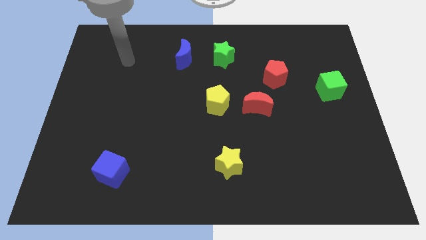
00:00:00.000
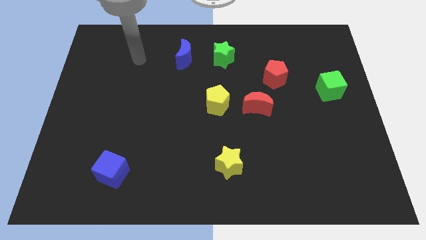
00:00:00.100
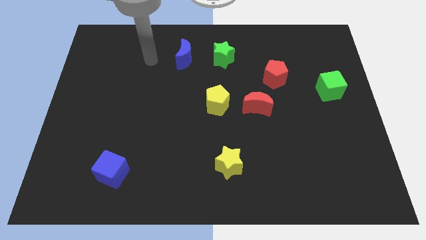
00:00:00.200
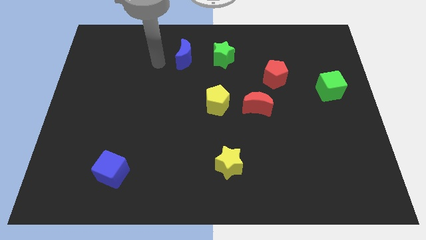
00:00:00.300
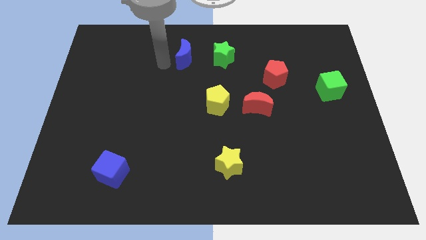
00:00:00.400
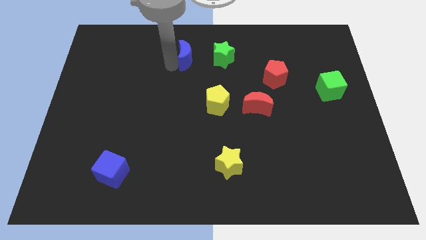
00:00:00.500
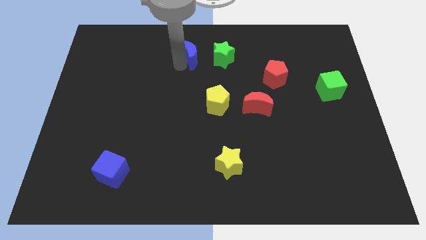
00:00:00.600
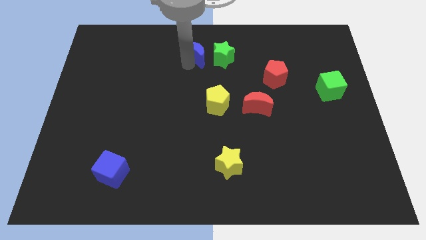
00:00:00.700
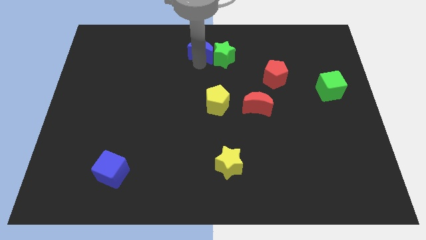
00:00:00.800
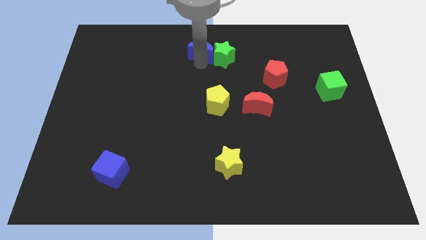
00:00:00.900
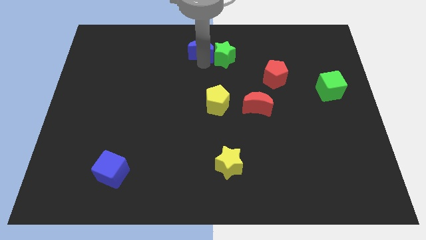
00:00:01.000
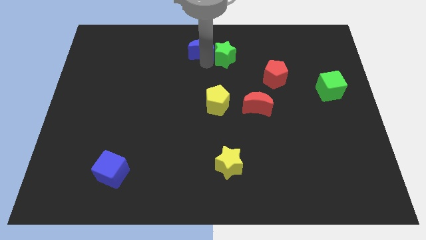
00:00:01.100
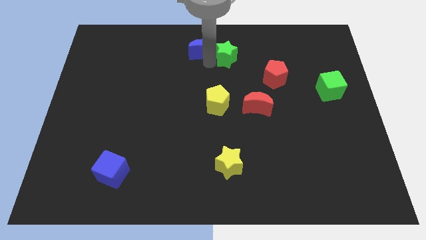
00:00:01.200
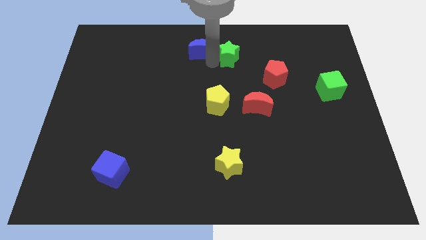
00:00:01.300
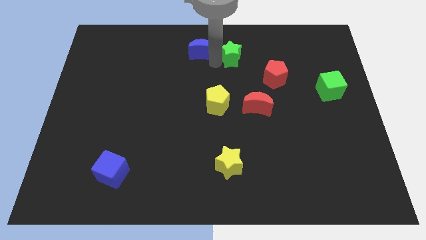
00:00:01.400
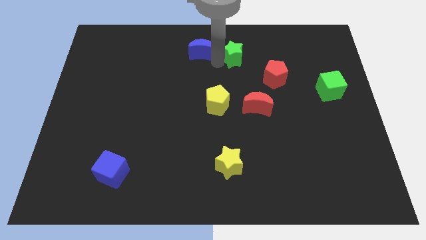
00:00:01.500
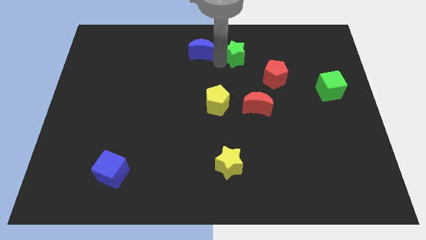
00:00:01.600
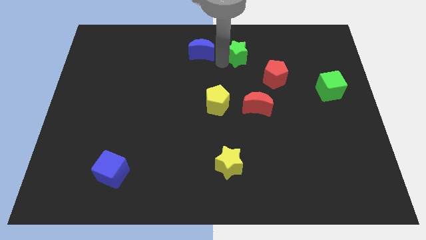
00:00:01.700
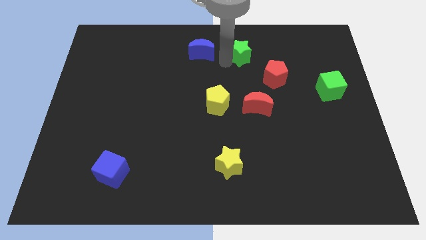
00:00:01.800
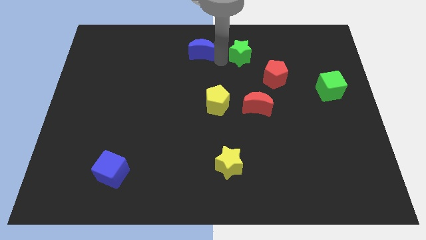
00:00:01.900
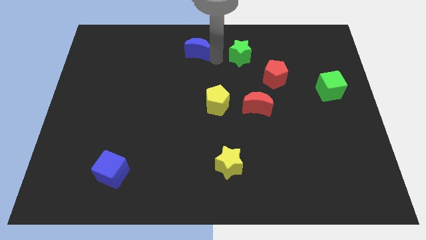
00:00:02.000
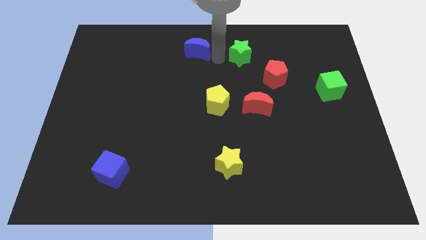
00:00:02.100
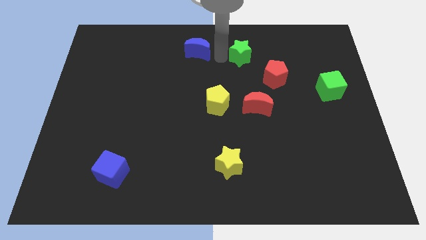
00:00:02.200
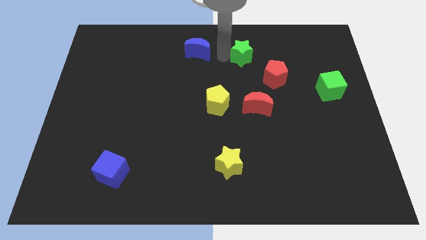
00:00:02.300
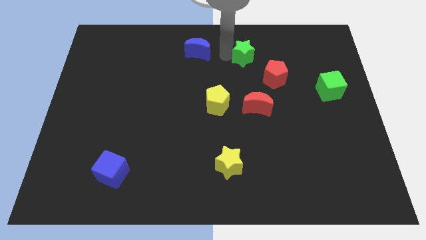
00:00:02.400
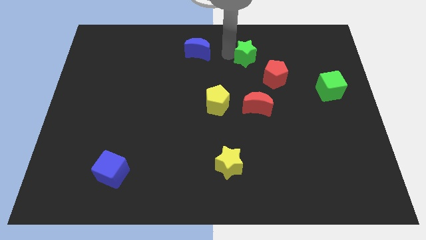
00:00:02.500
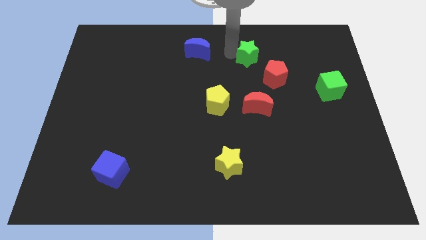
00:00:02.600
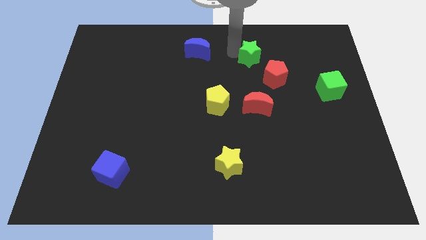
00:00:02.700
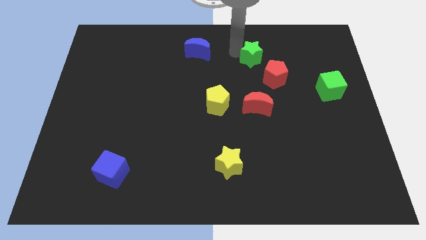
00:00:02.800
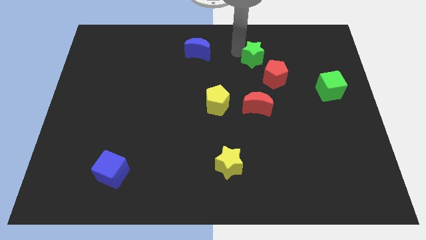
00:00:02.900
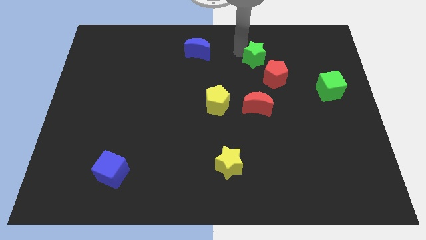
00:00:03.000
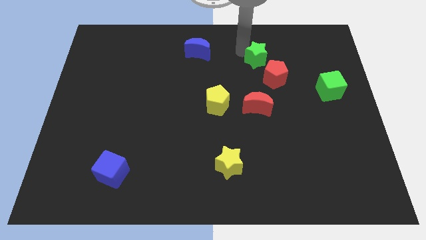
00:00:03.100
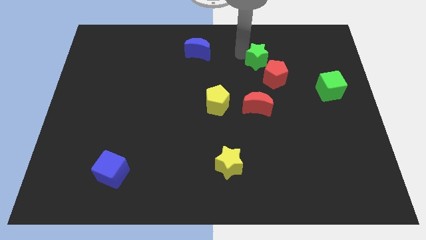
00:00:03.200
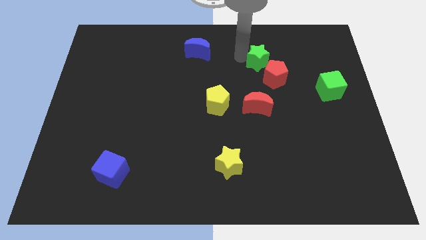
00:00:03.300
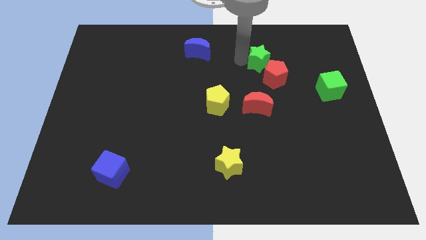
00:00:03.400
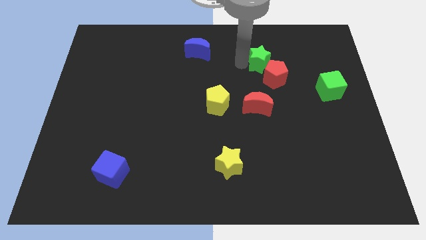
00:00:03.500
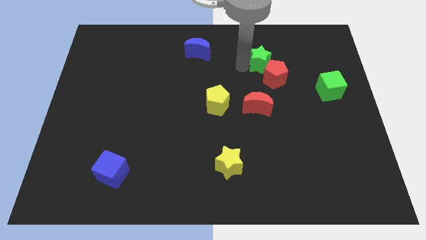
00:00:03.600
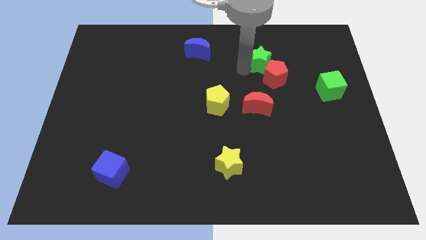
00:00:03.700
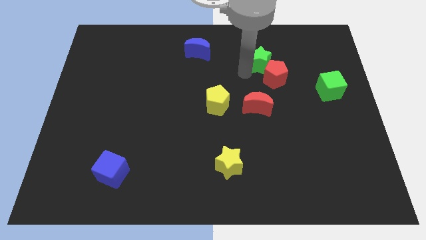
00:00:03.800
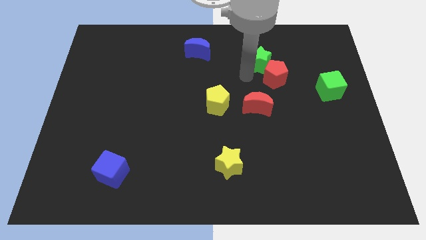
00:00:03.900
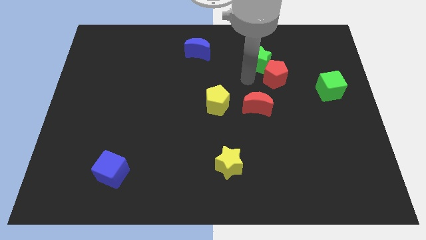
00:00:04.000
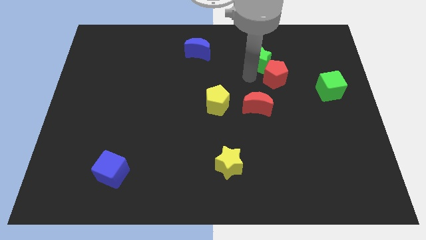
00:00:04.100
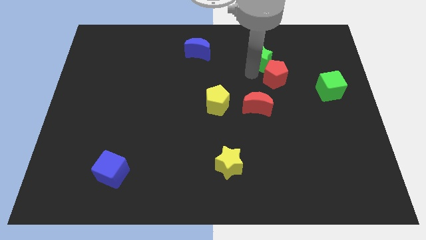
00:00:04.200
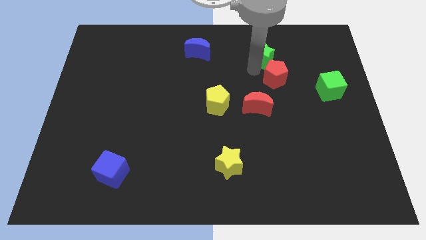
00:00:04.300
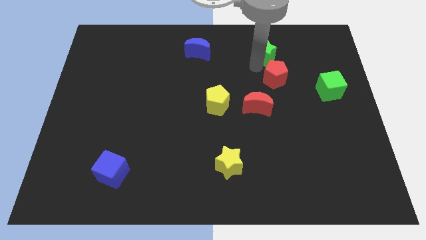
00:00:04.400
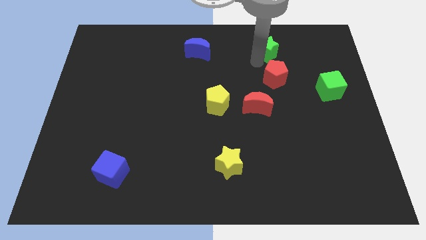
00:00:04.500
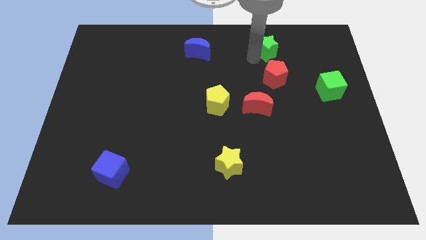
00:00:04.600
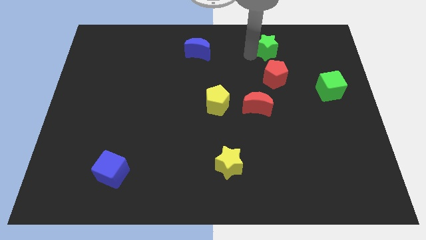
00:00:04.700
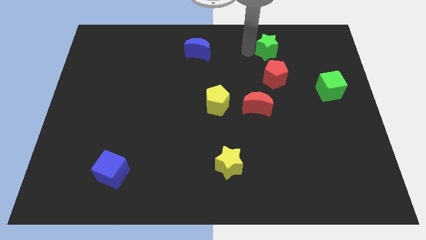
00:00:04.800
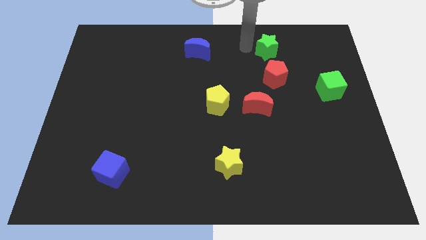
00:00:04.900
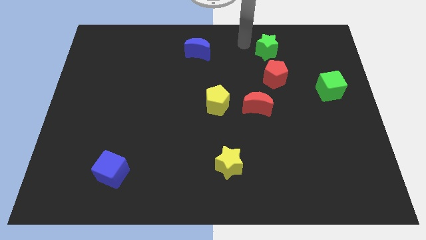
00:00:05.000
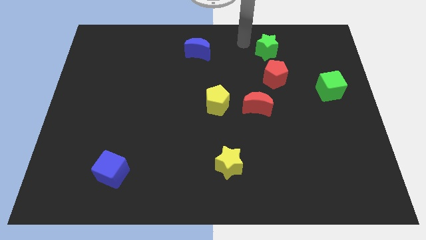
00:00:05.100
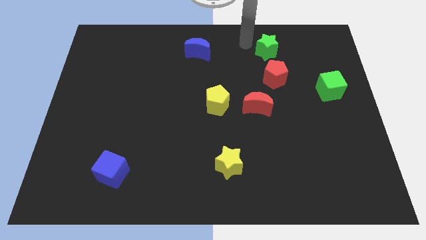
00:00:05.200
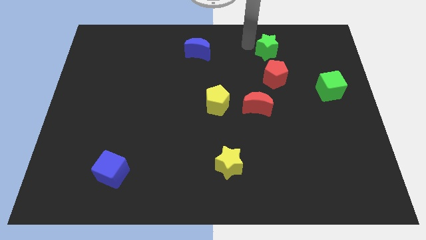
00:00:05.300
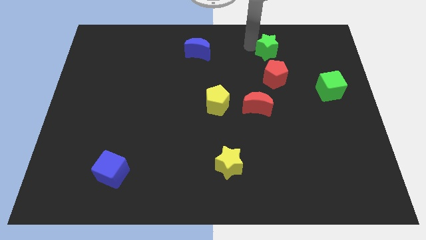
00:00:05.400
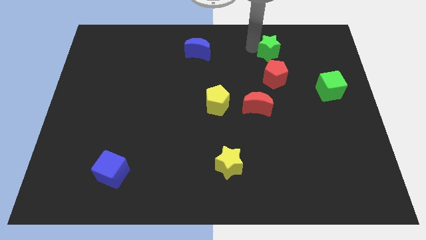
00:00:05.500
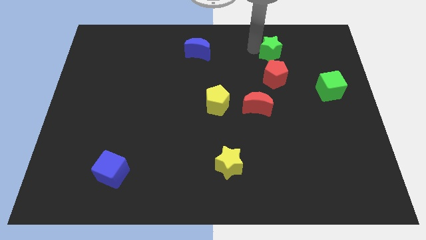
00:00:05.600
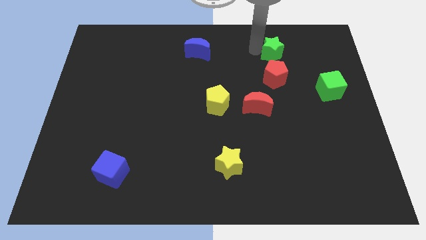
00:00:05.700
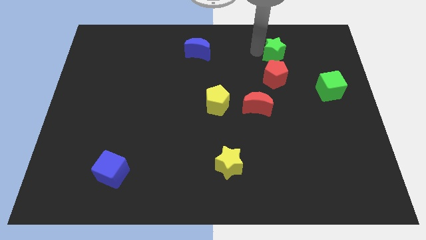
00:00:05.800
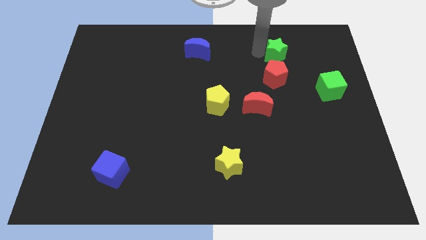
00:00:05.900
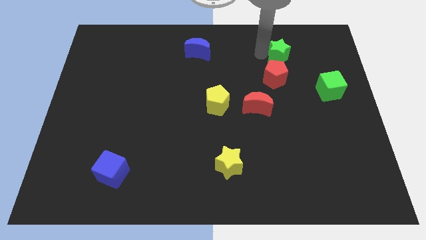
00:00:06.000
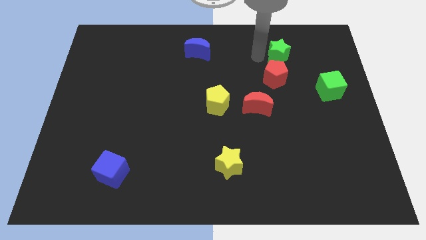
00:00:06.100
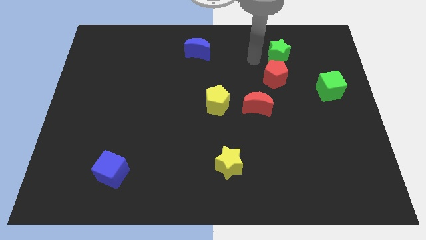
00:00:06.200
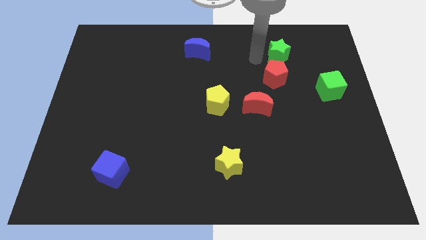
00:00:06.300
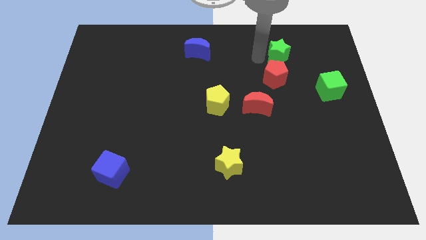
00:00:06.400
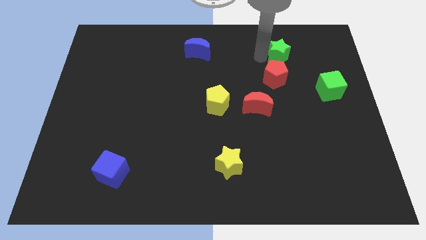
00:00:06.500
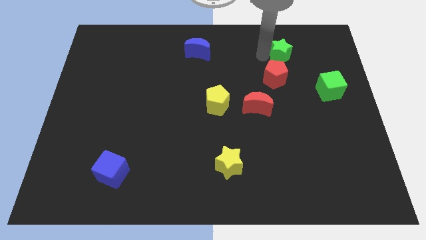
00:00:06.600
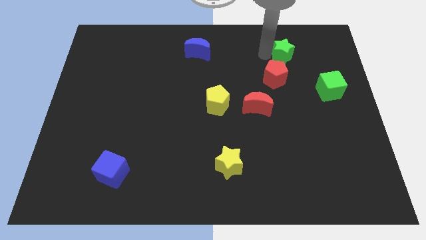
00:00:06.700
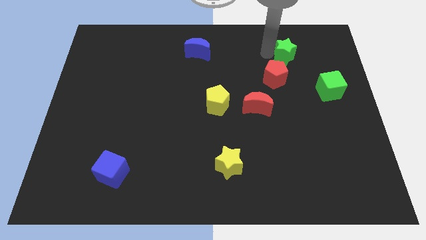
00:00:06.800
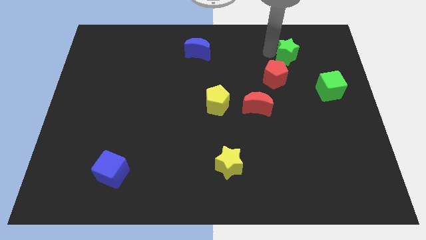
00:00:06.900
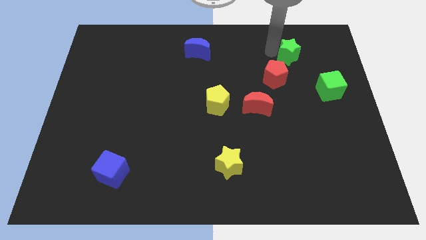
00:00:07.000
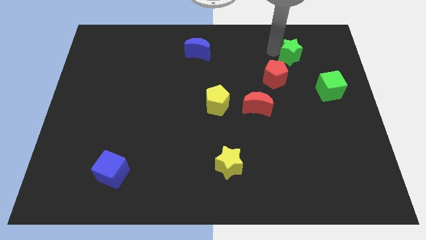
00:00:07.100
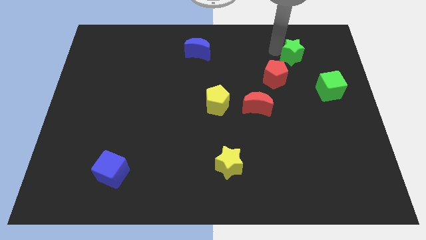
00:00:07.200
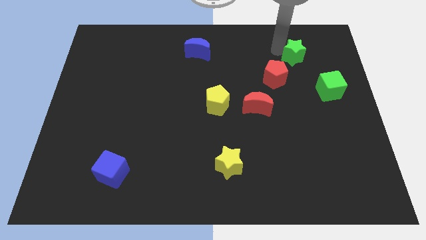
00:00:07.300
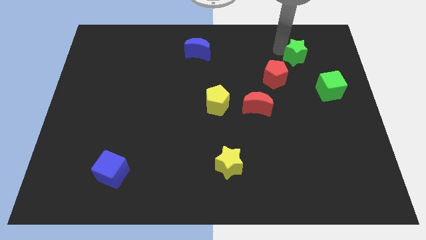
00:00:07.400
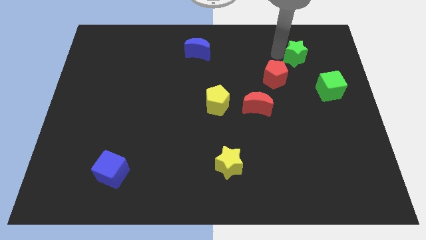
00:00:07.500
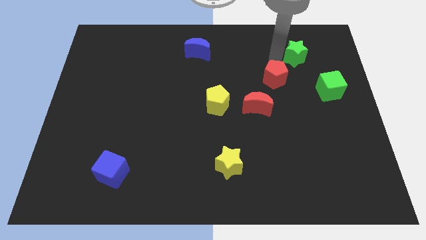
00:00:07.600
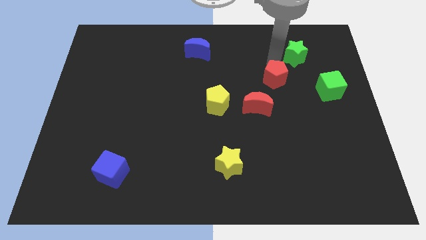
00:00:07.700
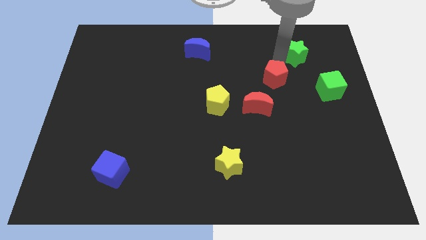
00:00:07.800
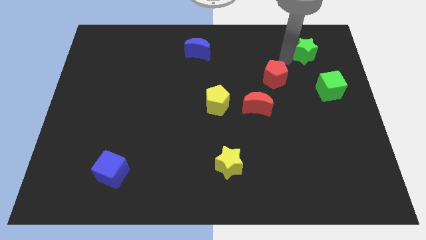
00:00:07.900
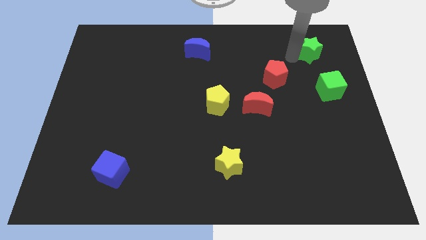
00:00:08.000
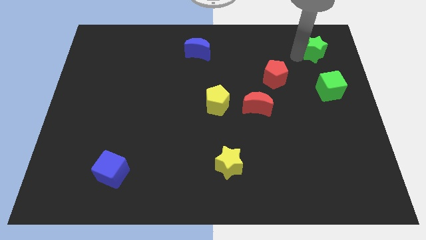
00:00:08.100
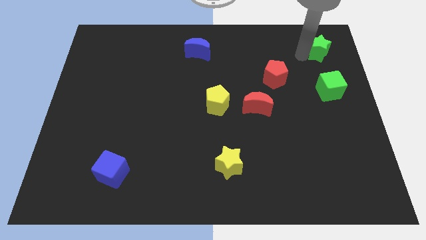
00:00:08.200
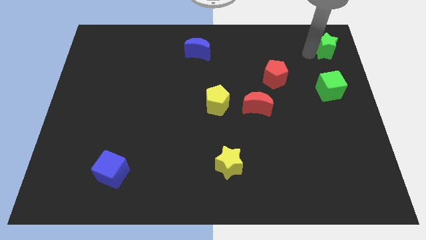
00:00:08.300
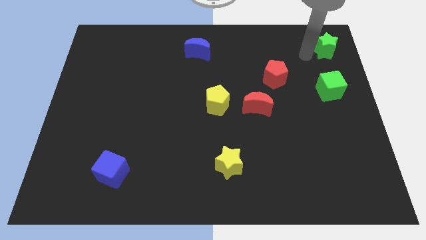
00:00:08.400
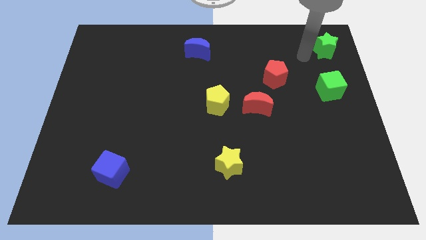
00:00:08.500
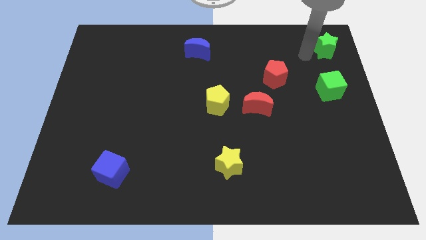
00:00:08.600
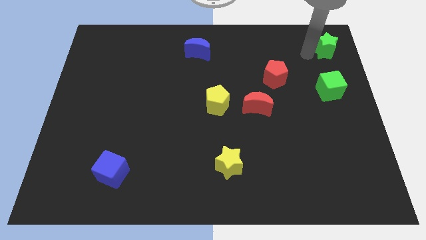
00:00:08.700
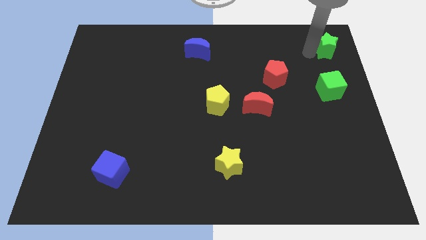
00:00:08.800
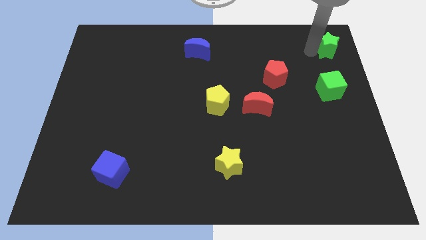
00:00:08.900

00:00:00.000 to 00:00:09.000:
put the green star to the upper right corner
